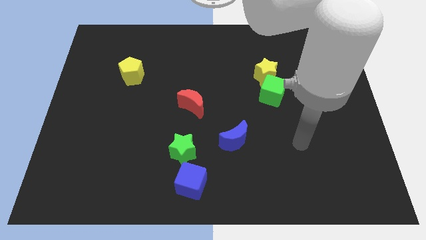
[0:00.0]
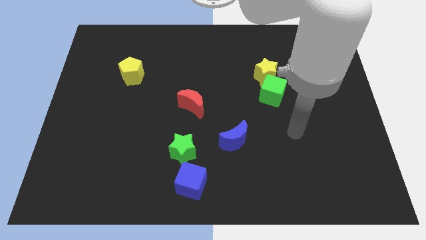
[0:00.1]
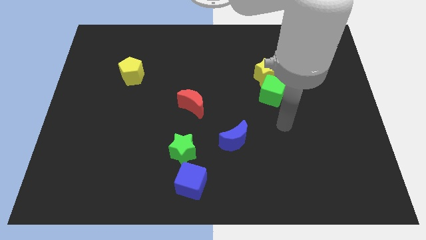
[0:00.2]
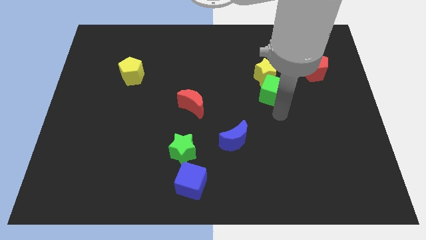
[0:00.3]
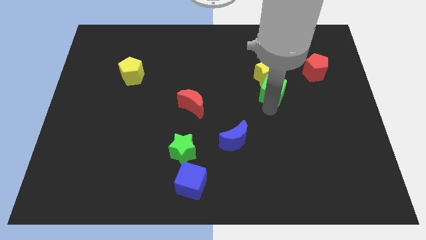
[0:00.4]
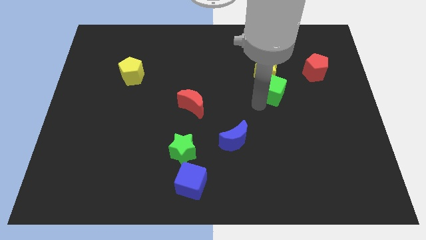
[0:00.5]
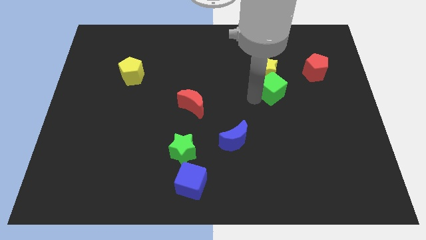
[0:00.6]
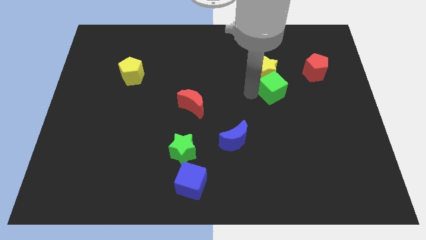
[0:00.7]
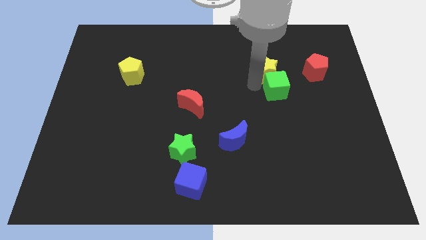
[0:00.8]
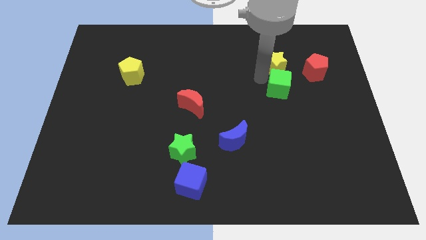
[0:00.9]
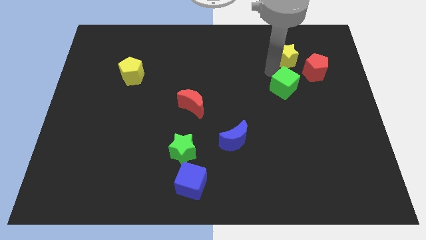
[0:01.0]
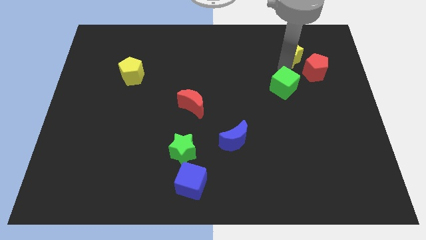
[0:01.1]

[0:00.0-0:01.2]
pull the green cube apart from the yellow star

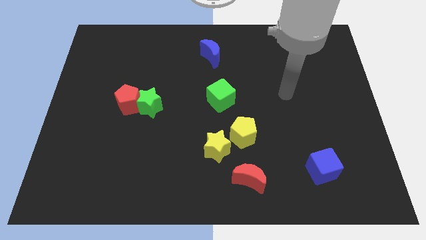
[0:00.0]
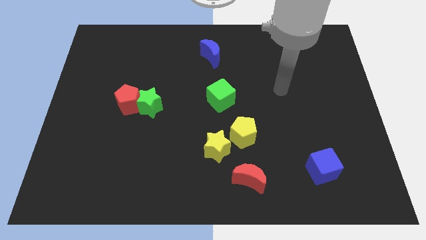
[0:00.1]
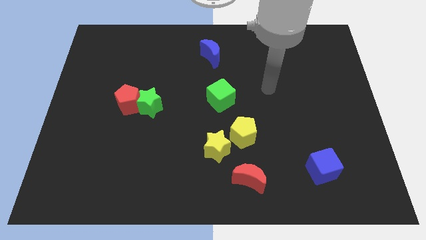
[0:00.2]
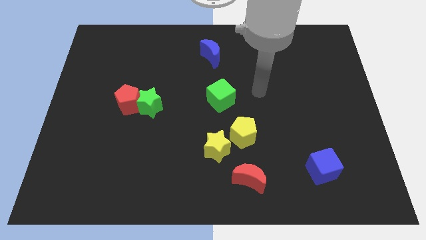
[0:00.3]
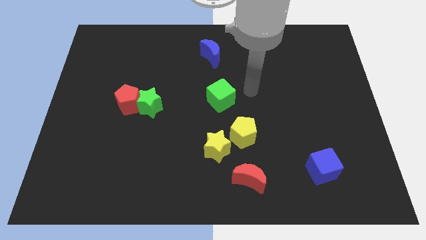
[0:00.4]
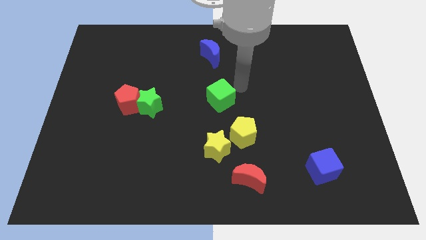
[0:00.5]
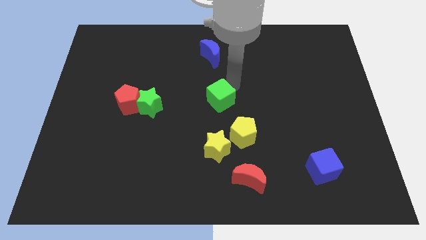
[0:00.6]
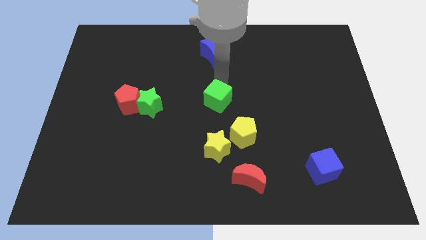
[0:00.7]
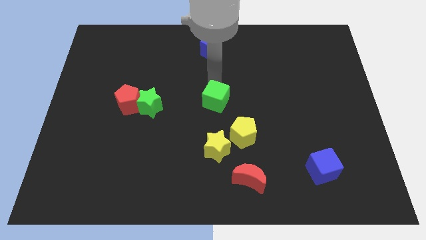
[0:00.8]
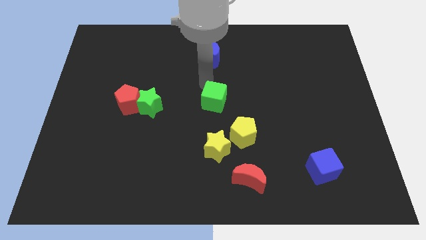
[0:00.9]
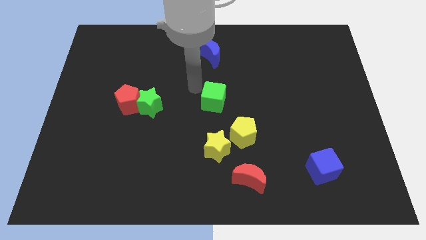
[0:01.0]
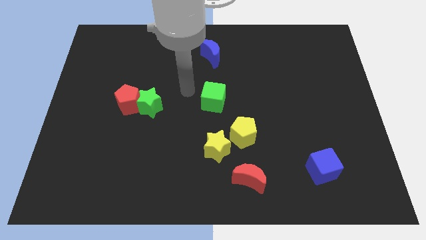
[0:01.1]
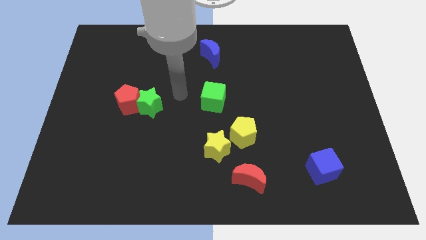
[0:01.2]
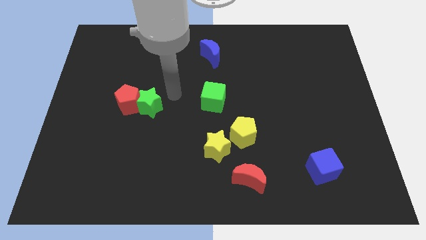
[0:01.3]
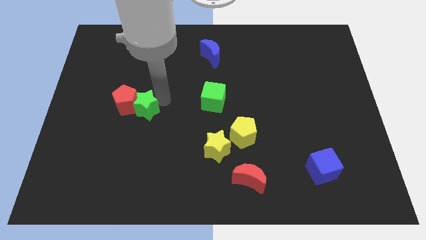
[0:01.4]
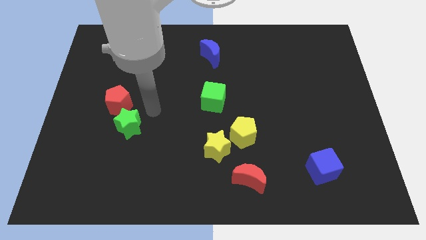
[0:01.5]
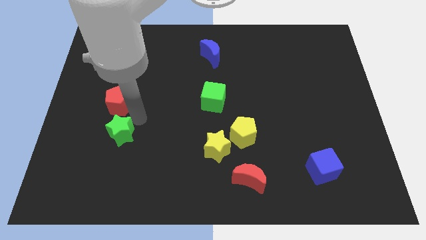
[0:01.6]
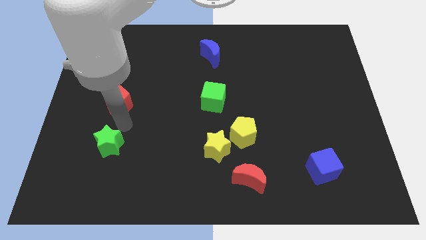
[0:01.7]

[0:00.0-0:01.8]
move the red pentagon away from the green star

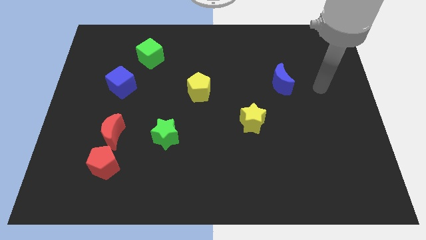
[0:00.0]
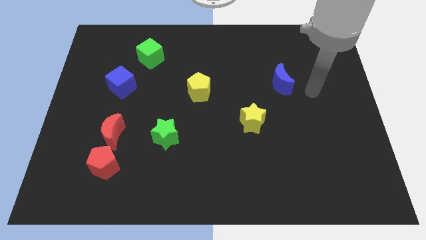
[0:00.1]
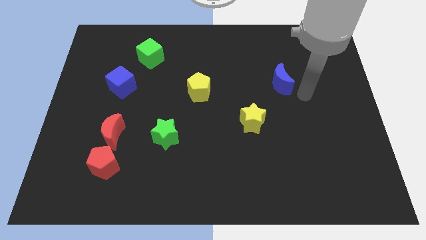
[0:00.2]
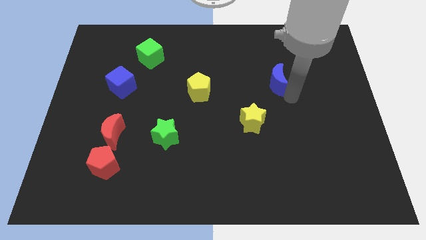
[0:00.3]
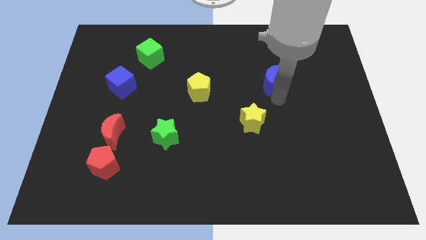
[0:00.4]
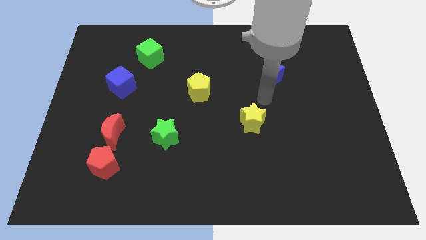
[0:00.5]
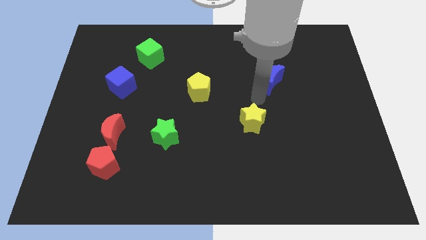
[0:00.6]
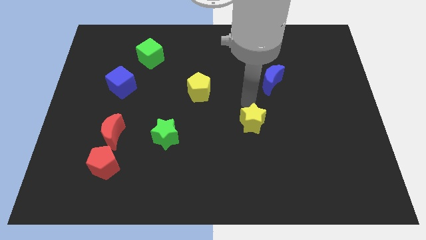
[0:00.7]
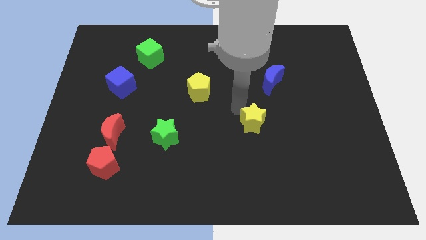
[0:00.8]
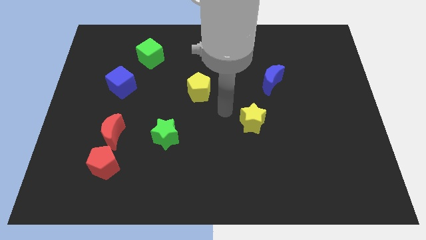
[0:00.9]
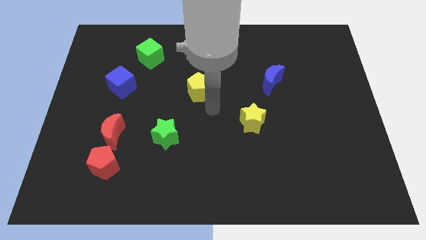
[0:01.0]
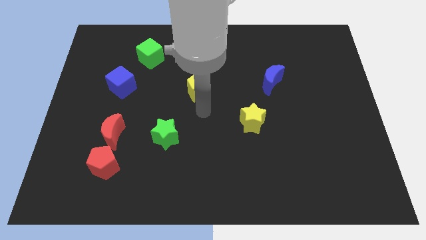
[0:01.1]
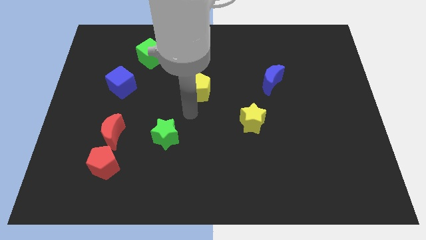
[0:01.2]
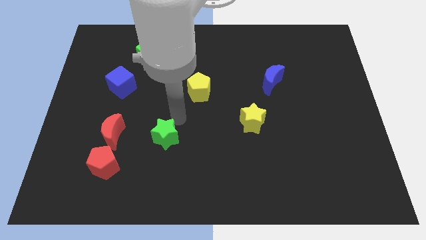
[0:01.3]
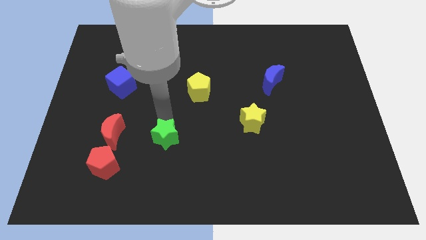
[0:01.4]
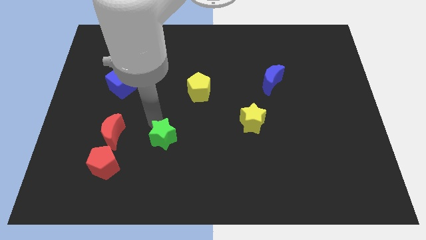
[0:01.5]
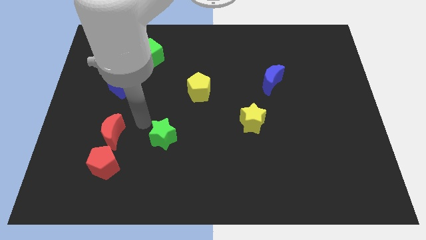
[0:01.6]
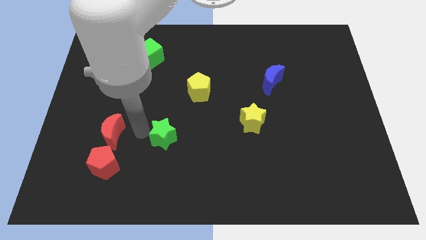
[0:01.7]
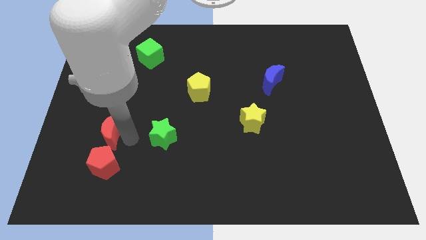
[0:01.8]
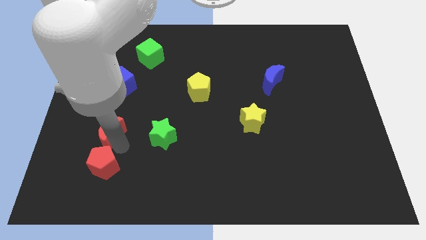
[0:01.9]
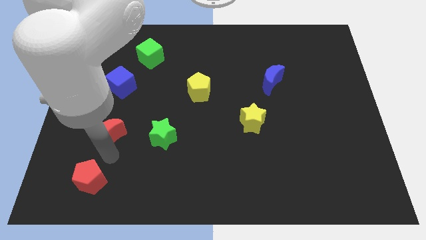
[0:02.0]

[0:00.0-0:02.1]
separate the red moon from the red pentagon

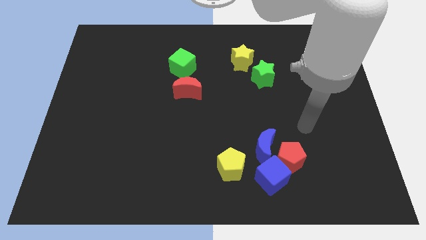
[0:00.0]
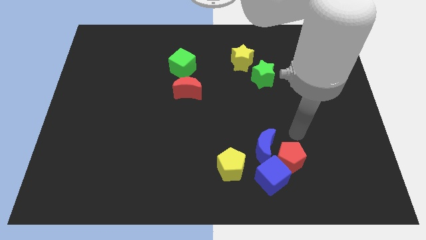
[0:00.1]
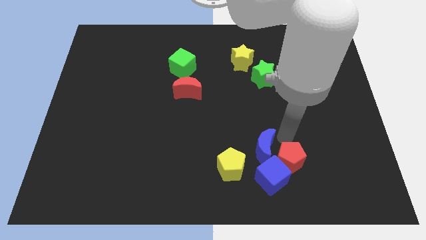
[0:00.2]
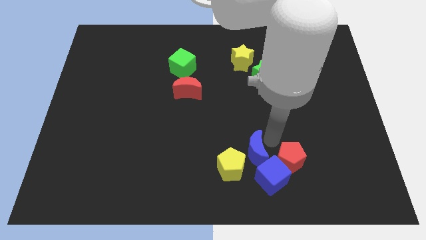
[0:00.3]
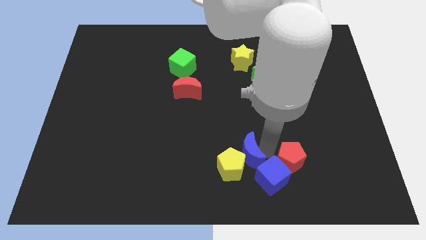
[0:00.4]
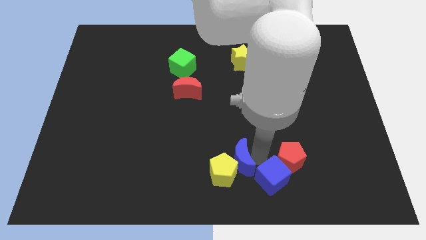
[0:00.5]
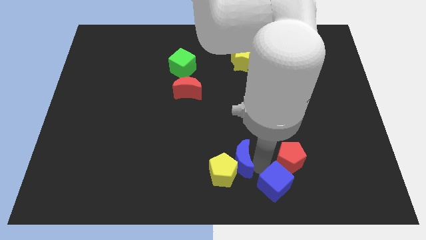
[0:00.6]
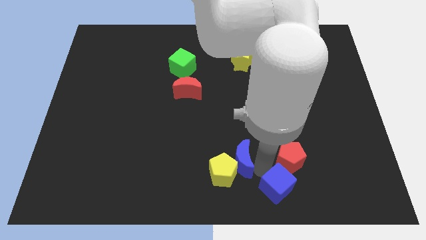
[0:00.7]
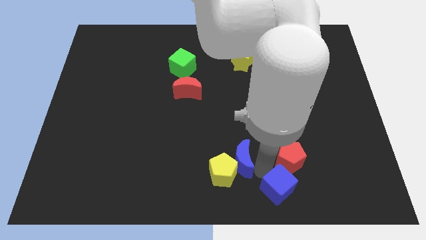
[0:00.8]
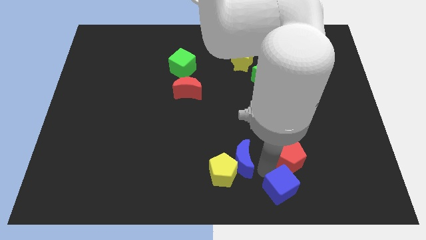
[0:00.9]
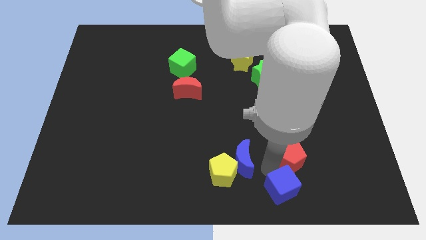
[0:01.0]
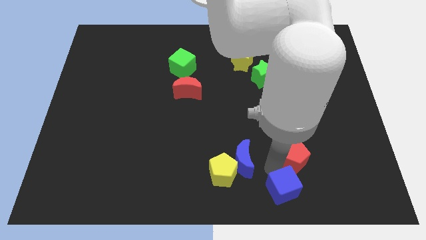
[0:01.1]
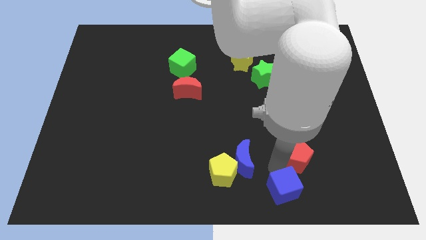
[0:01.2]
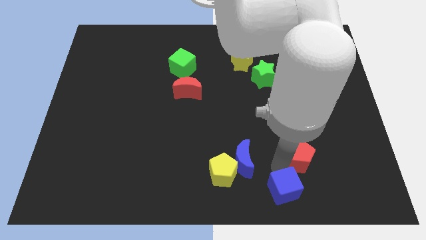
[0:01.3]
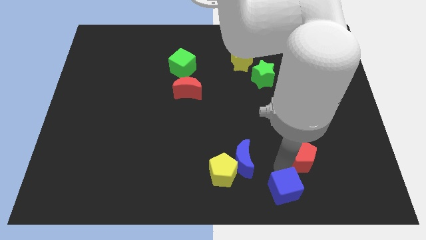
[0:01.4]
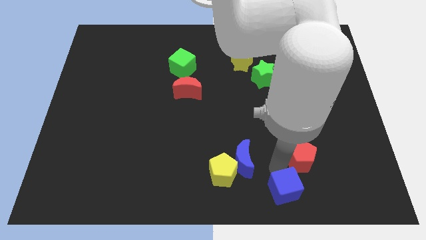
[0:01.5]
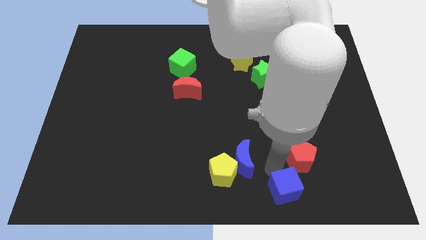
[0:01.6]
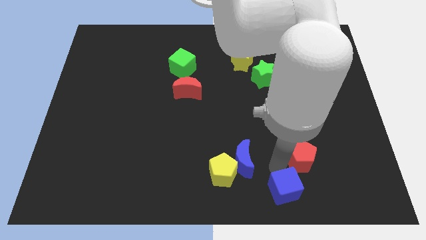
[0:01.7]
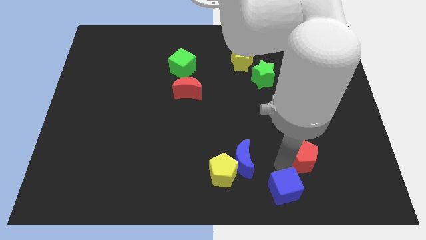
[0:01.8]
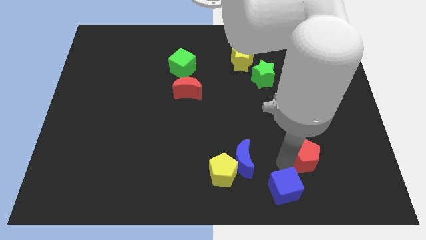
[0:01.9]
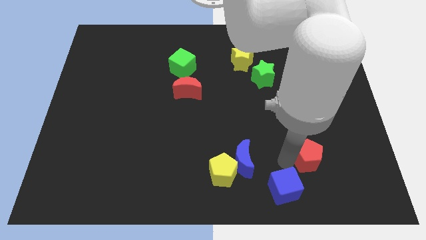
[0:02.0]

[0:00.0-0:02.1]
pull the red pentagon apart from the blue moon and blue cube

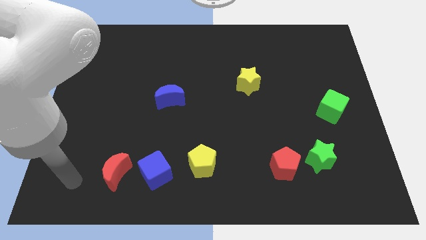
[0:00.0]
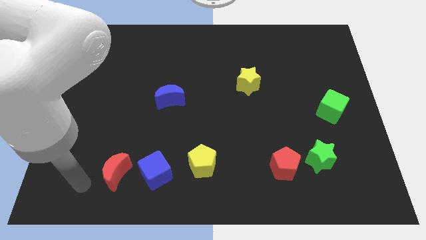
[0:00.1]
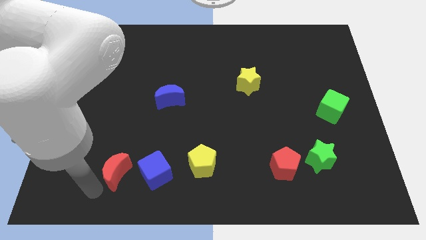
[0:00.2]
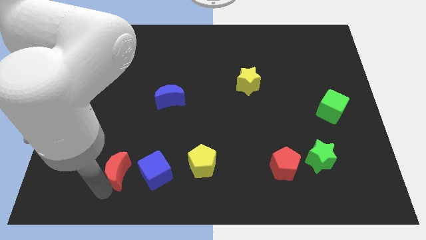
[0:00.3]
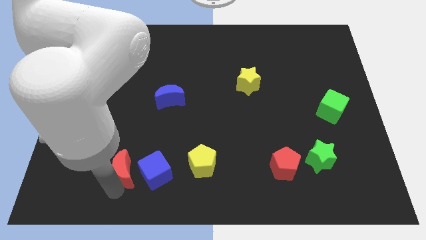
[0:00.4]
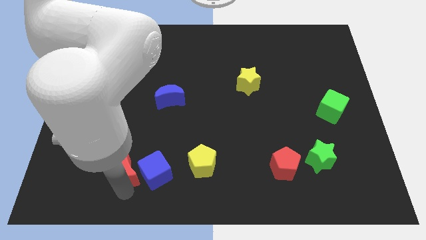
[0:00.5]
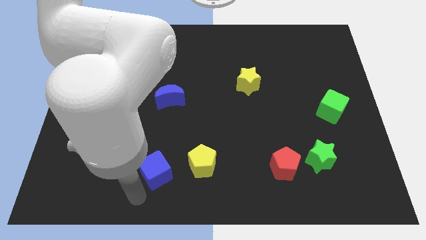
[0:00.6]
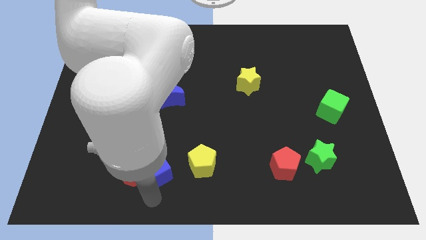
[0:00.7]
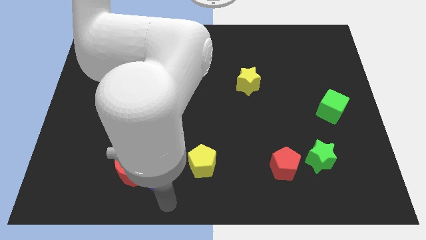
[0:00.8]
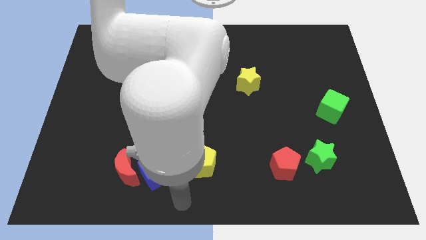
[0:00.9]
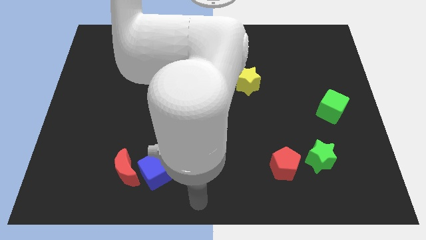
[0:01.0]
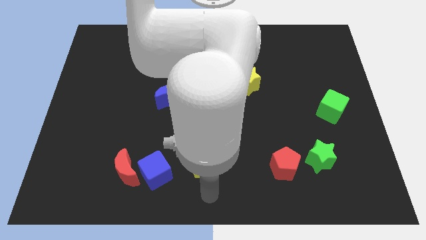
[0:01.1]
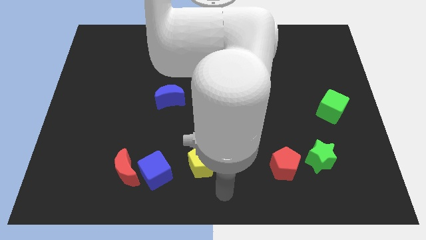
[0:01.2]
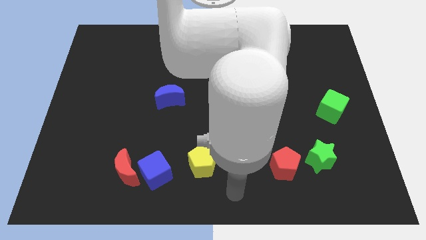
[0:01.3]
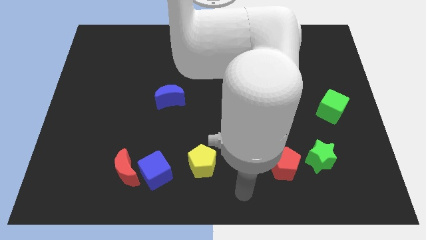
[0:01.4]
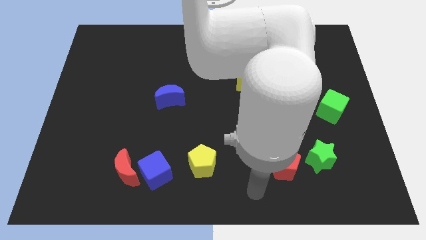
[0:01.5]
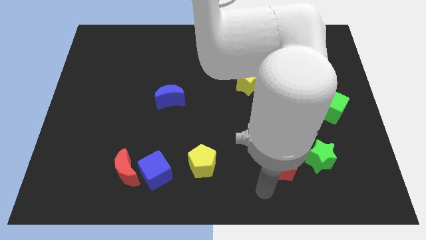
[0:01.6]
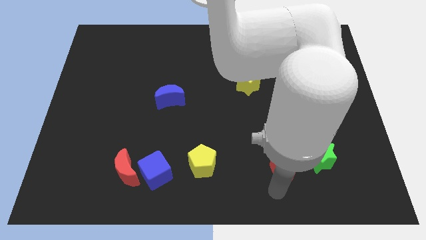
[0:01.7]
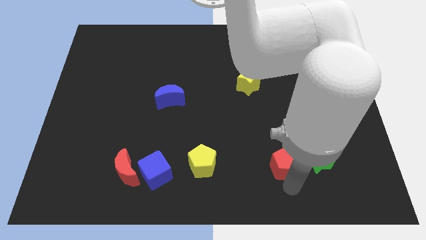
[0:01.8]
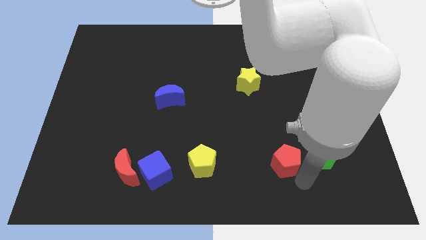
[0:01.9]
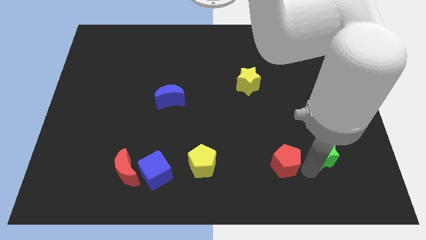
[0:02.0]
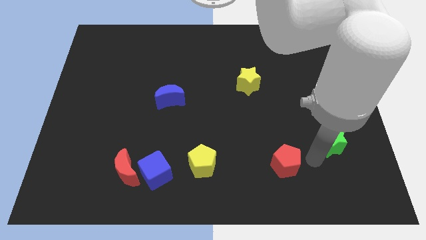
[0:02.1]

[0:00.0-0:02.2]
separate the red pentagon from the green star
